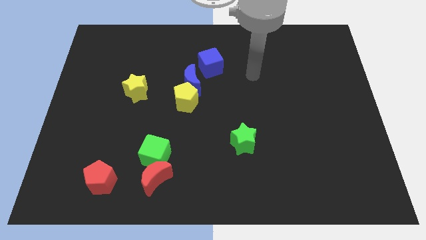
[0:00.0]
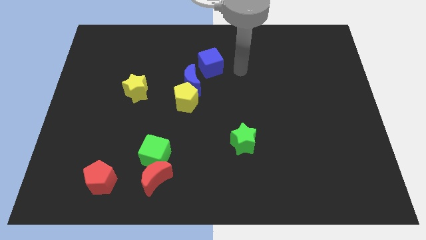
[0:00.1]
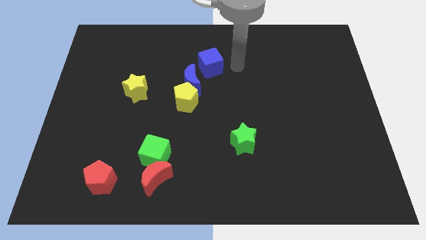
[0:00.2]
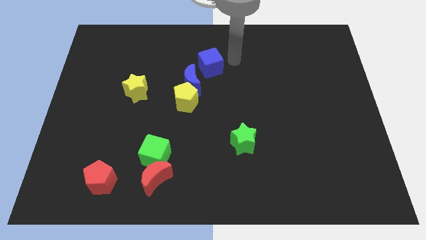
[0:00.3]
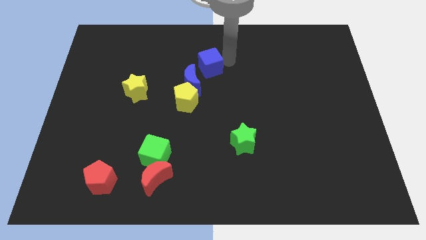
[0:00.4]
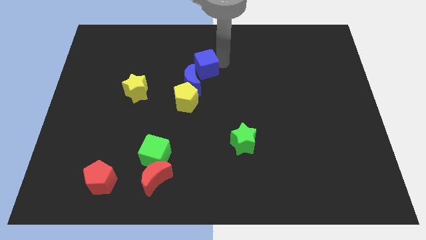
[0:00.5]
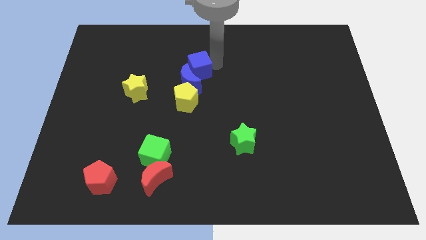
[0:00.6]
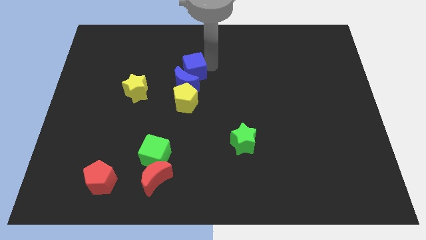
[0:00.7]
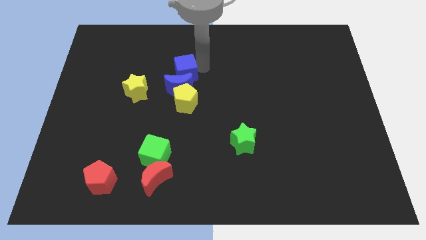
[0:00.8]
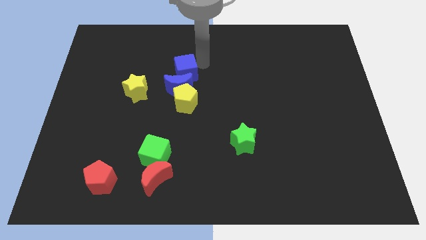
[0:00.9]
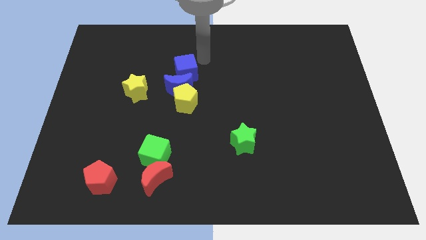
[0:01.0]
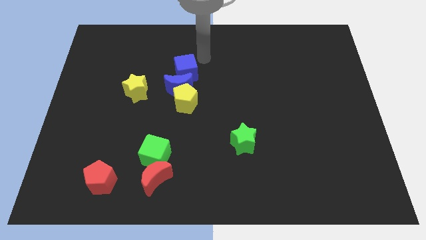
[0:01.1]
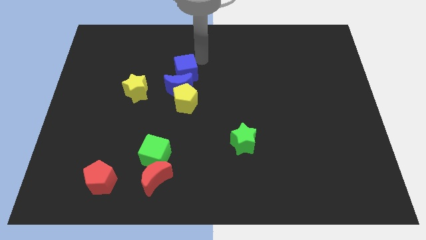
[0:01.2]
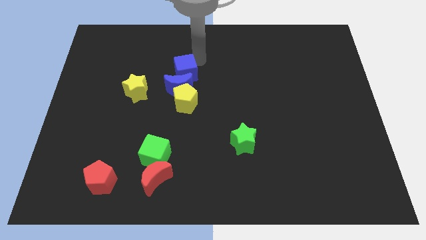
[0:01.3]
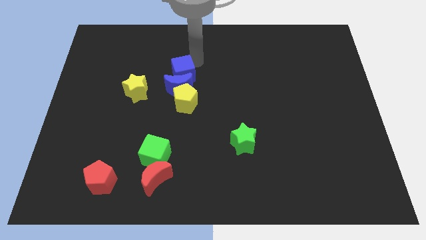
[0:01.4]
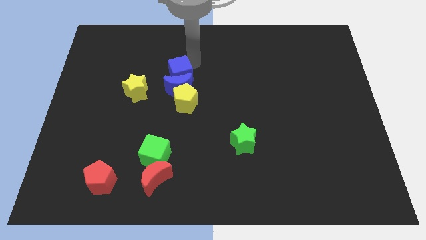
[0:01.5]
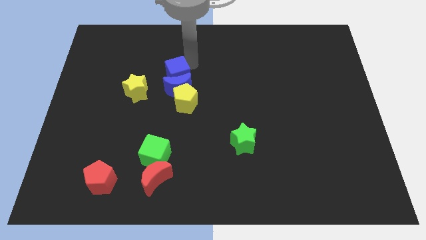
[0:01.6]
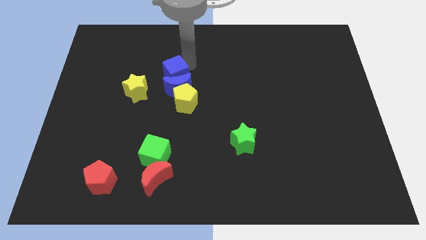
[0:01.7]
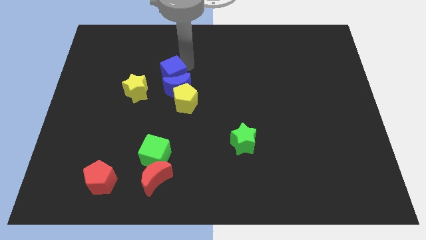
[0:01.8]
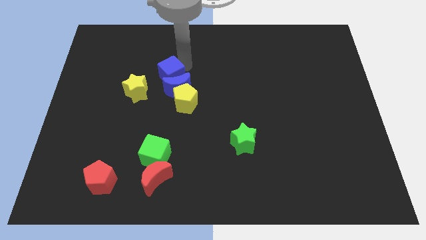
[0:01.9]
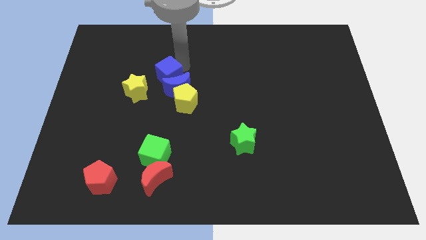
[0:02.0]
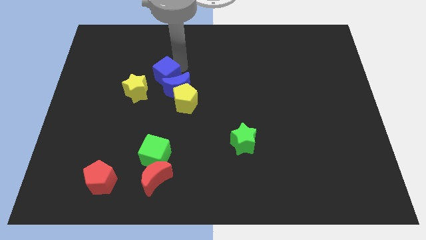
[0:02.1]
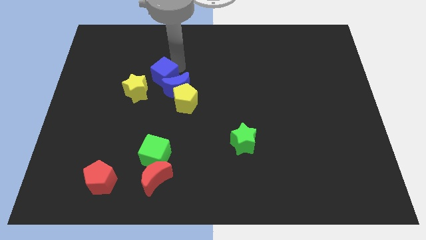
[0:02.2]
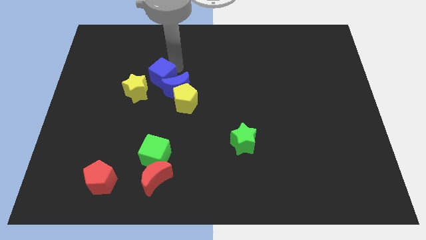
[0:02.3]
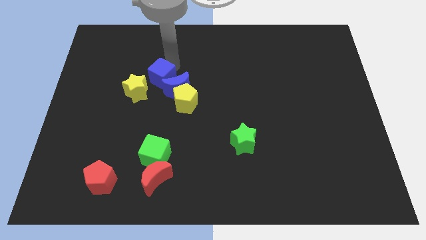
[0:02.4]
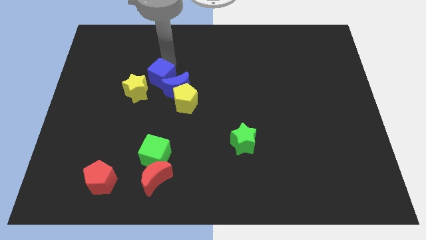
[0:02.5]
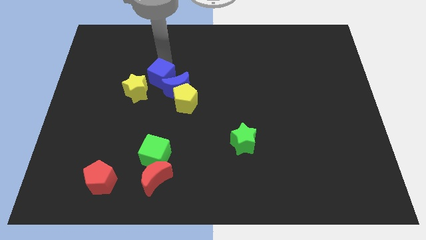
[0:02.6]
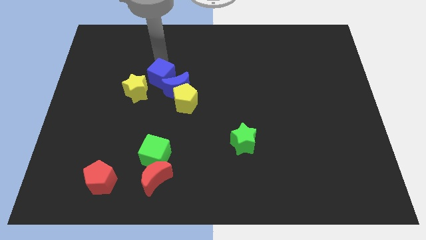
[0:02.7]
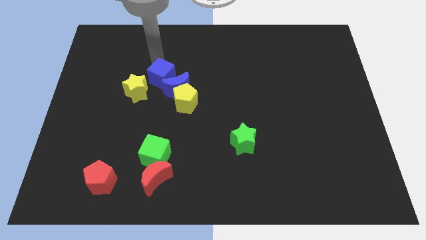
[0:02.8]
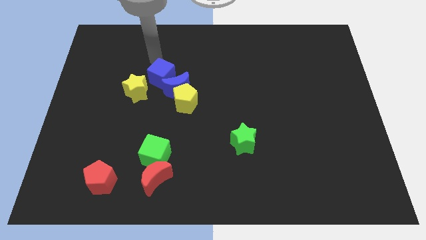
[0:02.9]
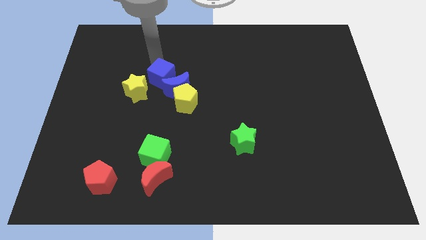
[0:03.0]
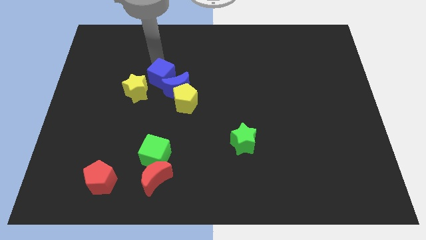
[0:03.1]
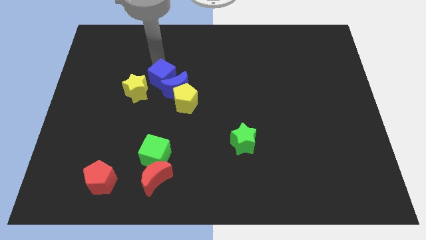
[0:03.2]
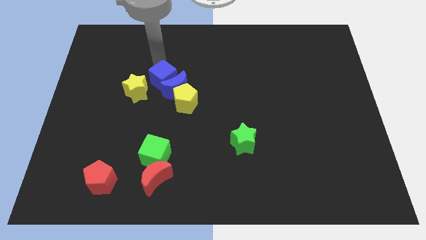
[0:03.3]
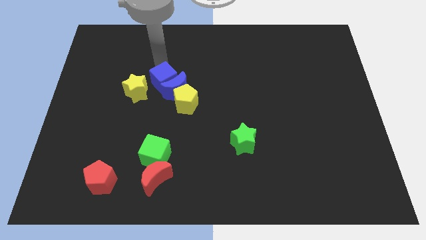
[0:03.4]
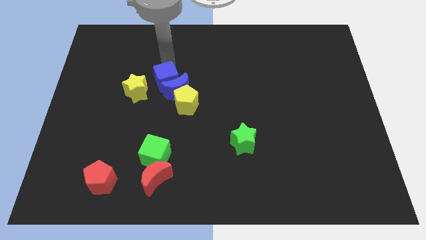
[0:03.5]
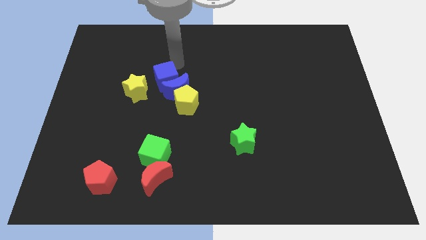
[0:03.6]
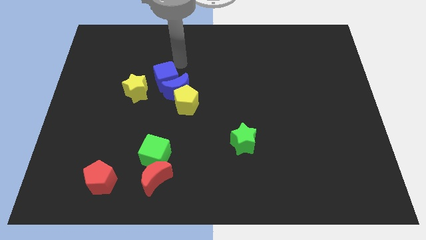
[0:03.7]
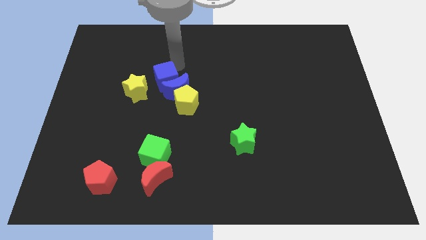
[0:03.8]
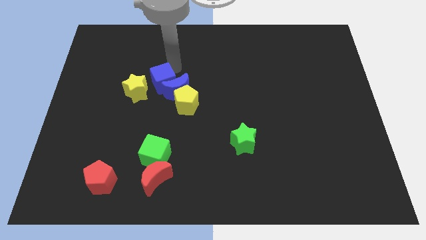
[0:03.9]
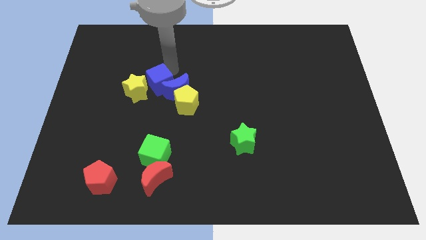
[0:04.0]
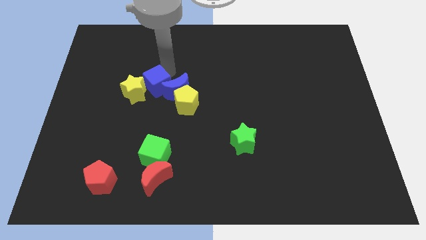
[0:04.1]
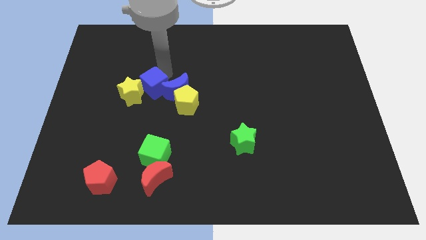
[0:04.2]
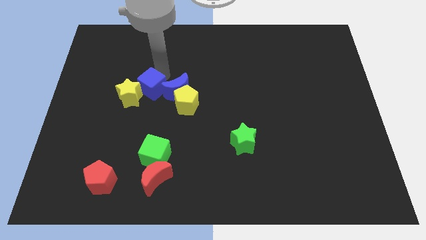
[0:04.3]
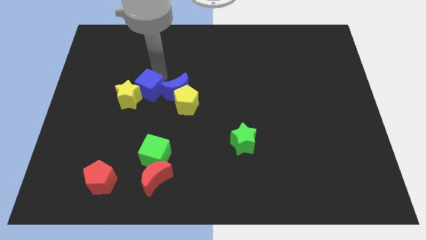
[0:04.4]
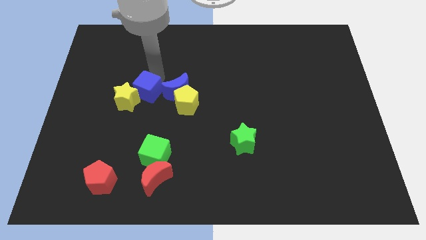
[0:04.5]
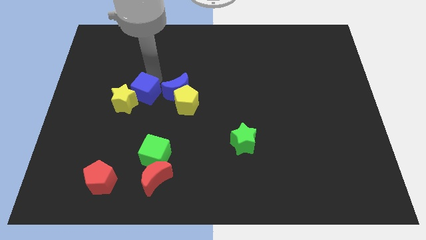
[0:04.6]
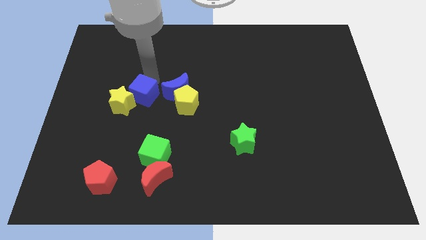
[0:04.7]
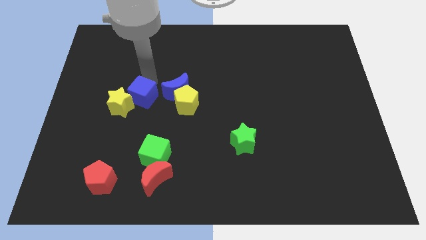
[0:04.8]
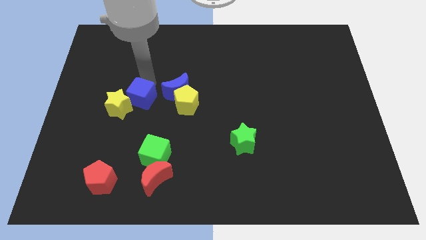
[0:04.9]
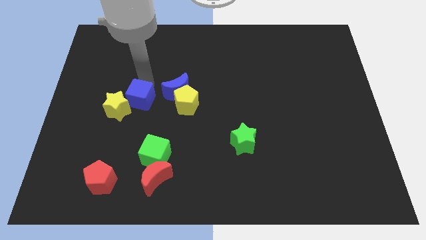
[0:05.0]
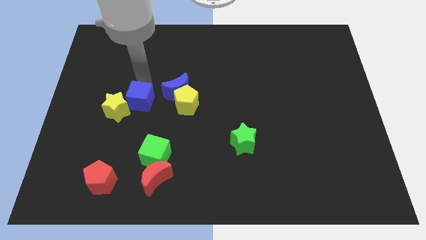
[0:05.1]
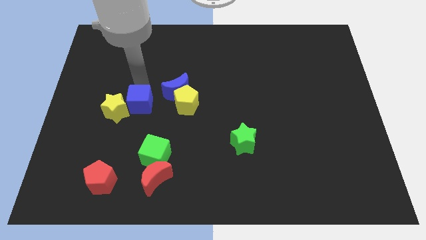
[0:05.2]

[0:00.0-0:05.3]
slide the blue cube downwards and then to the left

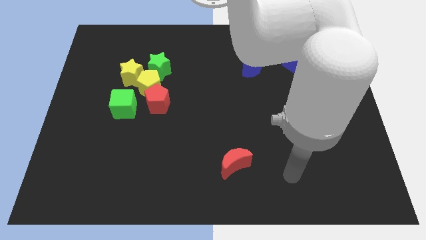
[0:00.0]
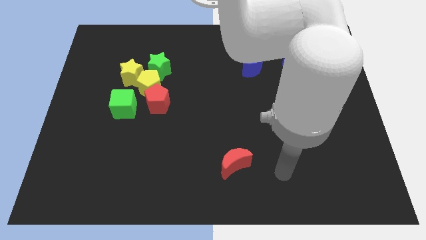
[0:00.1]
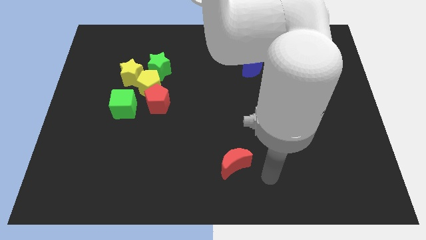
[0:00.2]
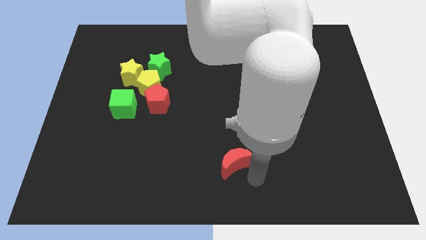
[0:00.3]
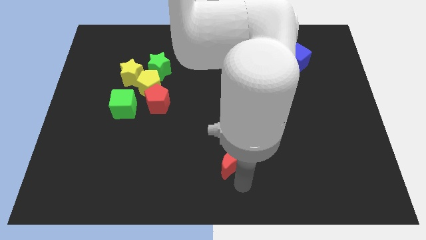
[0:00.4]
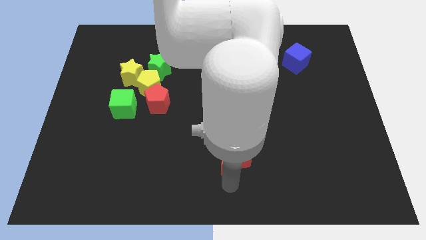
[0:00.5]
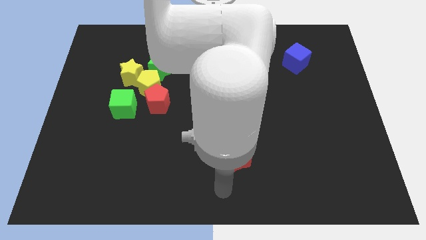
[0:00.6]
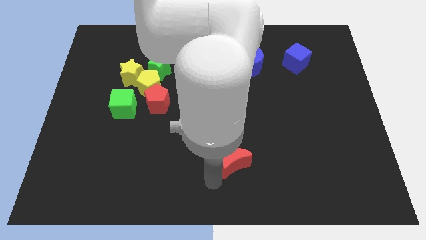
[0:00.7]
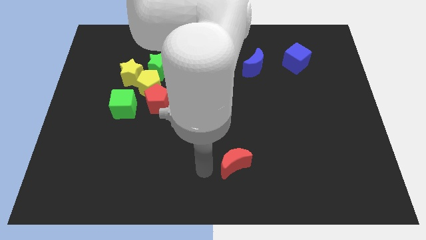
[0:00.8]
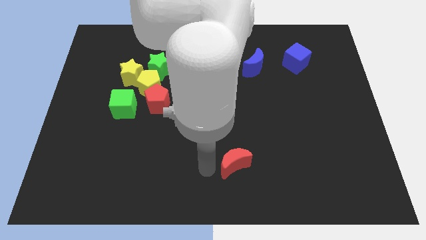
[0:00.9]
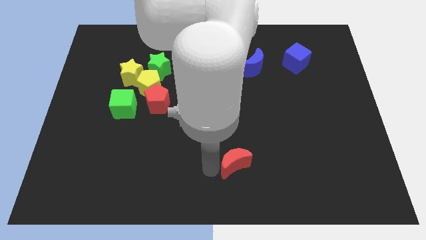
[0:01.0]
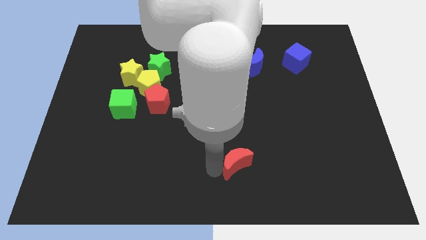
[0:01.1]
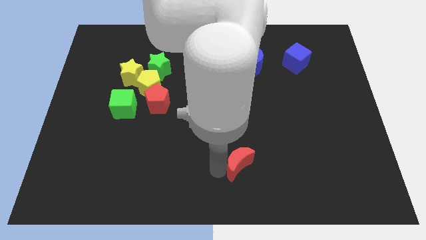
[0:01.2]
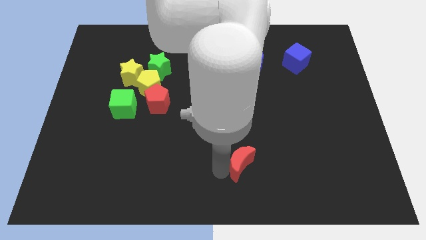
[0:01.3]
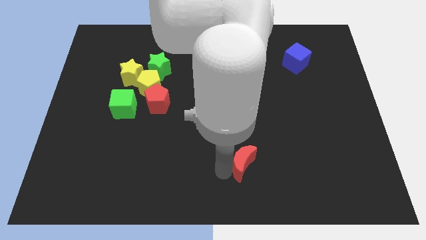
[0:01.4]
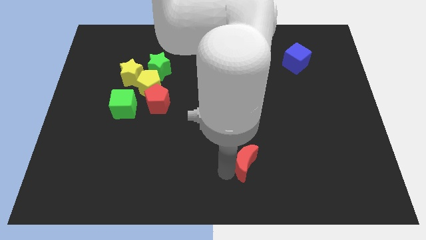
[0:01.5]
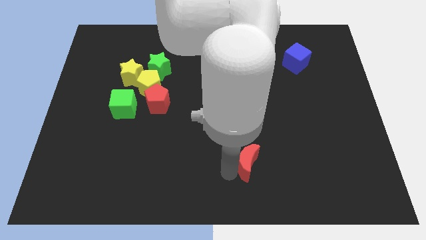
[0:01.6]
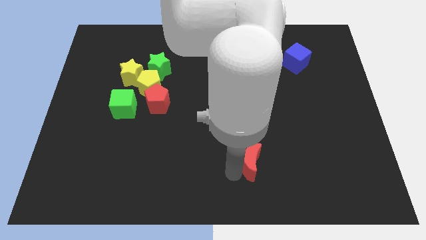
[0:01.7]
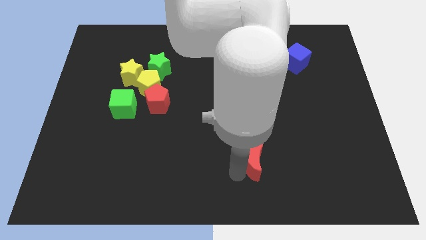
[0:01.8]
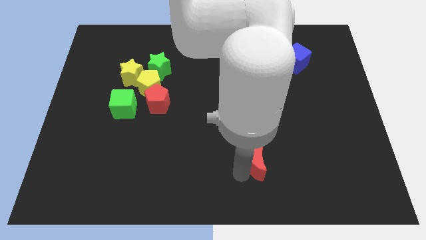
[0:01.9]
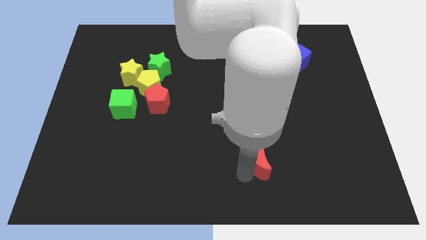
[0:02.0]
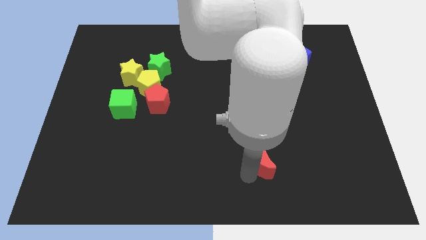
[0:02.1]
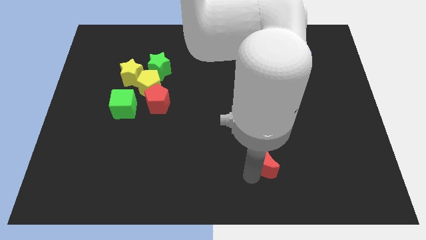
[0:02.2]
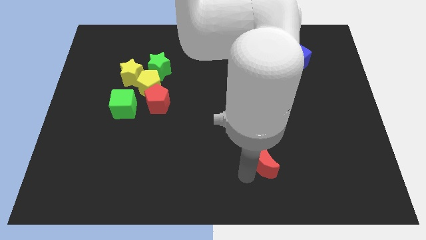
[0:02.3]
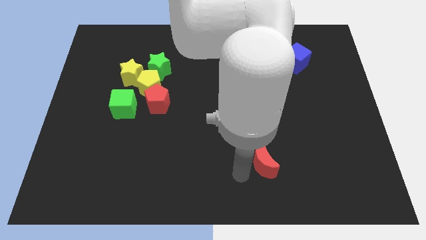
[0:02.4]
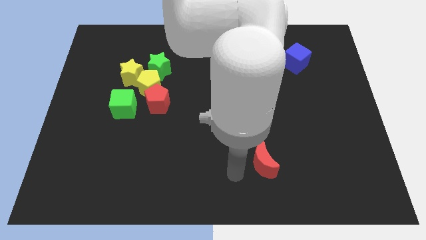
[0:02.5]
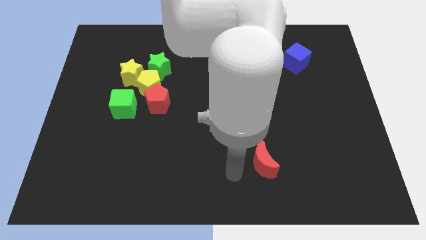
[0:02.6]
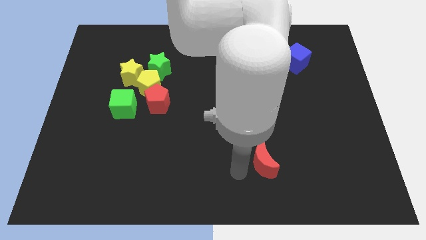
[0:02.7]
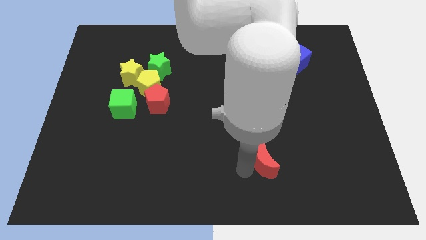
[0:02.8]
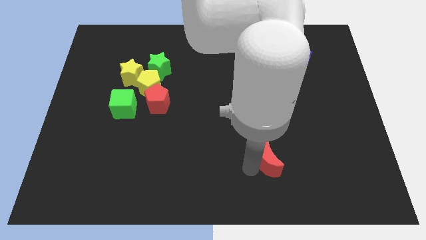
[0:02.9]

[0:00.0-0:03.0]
move the red moon somewhat right
